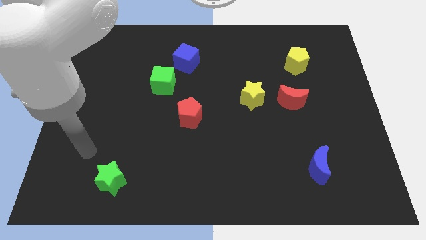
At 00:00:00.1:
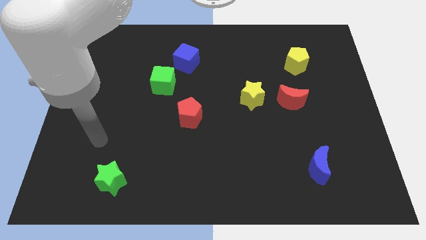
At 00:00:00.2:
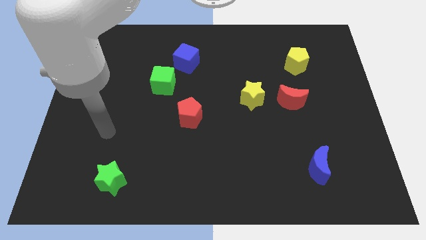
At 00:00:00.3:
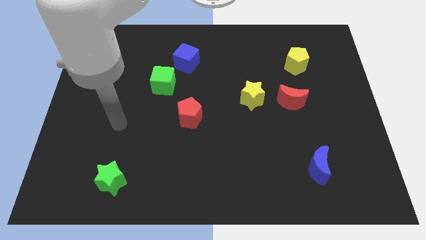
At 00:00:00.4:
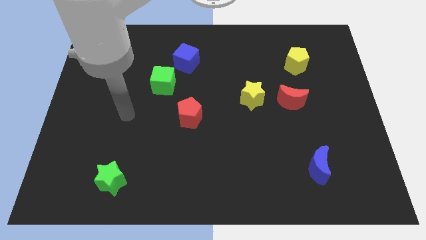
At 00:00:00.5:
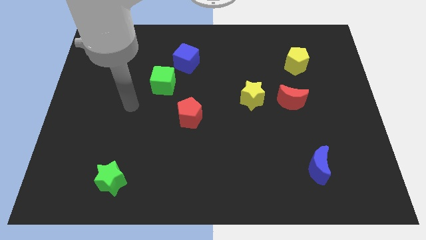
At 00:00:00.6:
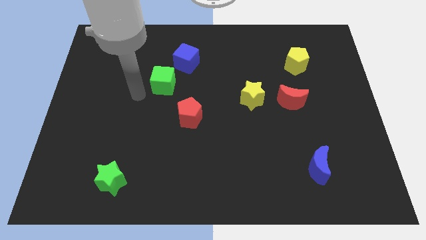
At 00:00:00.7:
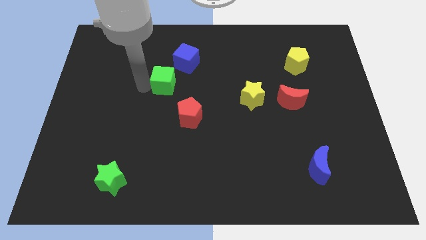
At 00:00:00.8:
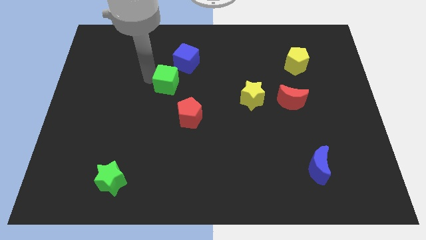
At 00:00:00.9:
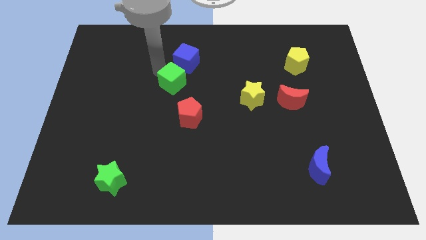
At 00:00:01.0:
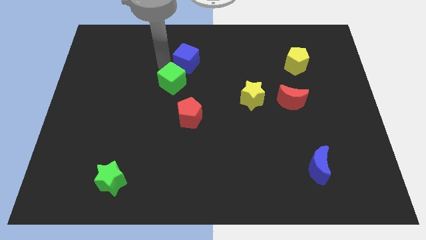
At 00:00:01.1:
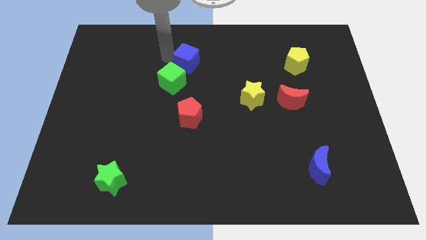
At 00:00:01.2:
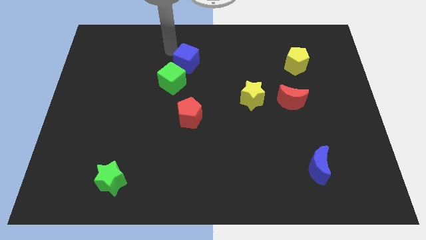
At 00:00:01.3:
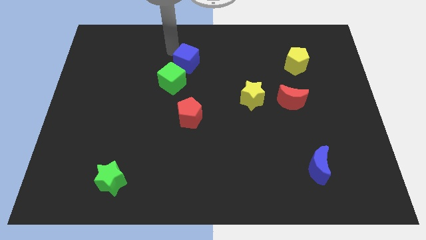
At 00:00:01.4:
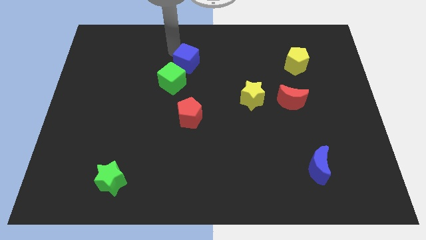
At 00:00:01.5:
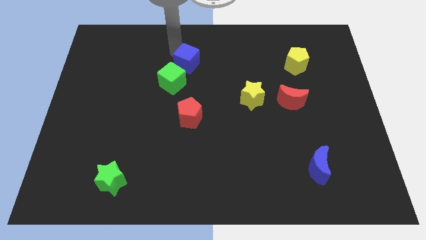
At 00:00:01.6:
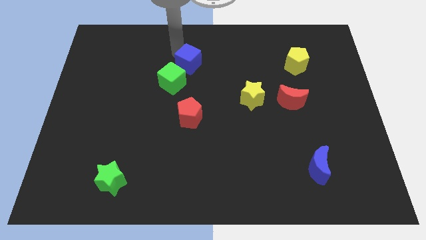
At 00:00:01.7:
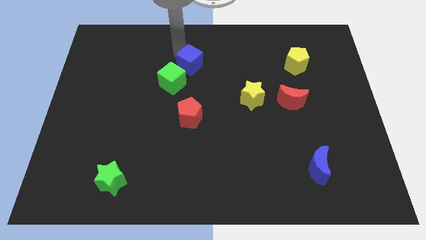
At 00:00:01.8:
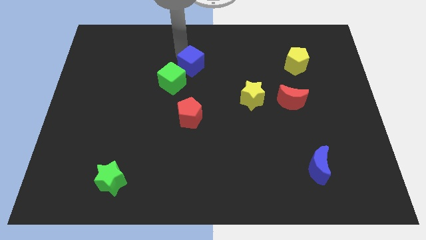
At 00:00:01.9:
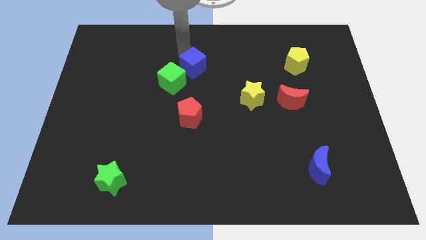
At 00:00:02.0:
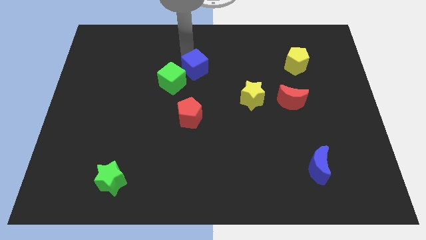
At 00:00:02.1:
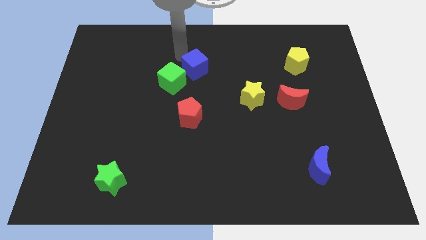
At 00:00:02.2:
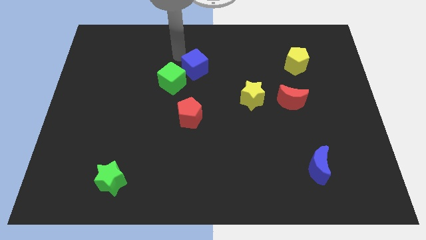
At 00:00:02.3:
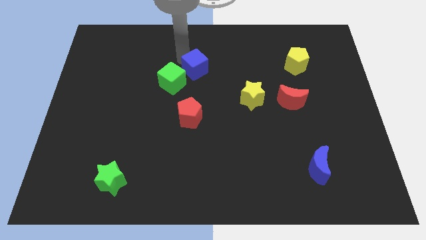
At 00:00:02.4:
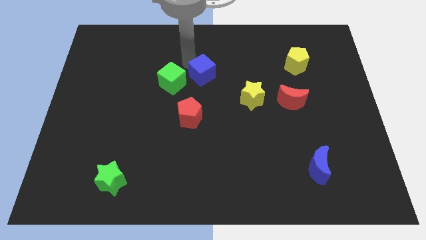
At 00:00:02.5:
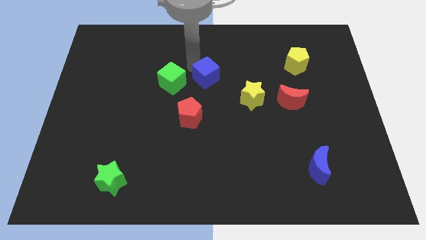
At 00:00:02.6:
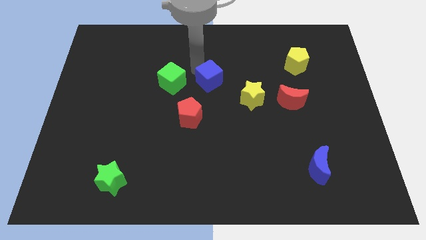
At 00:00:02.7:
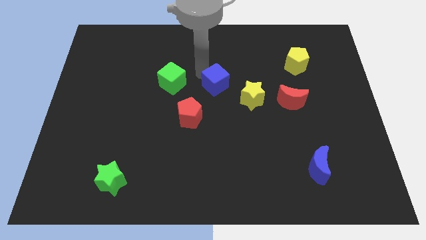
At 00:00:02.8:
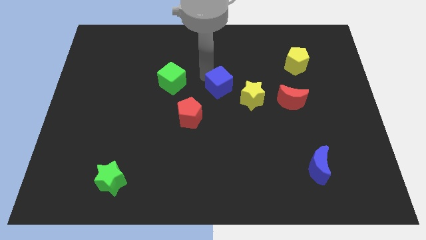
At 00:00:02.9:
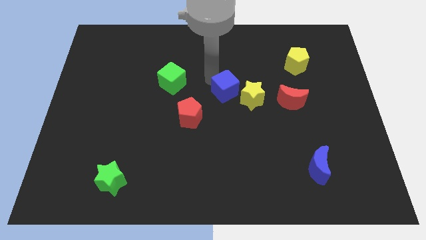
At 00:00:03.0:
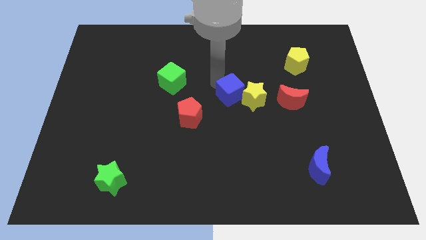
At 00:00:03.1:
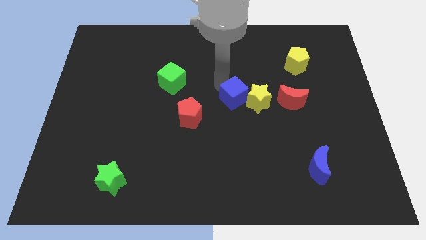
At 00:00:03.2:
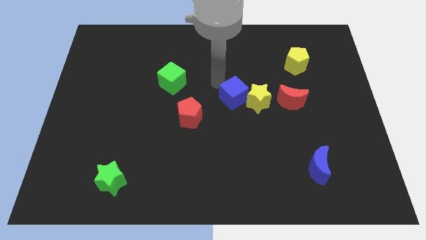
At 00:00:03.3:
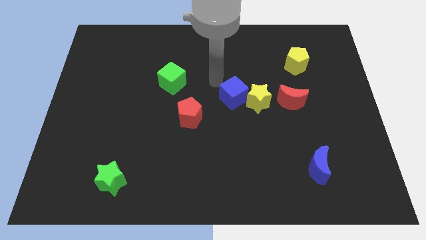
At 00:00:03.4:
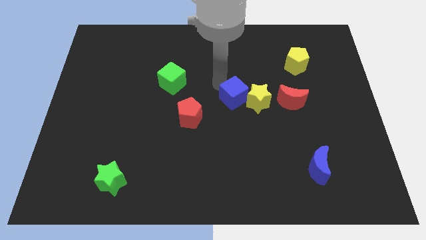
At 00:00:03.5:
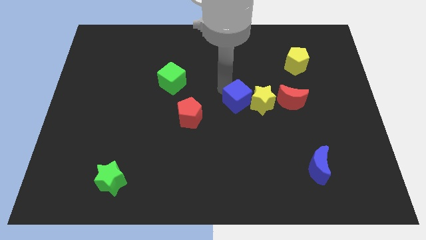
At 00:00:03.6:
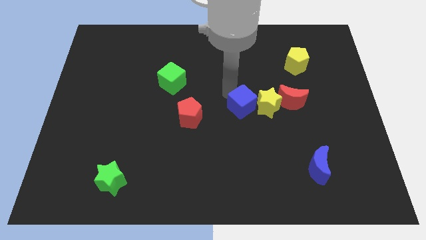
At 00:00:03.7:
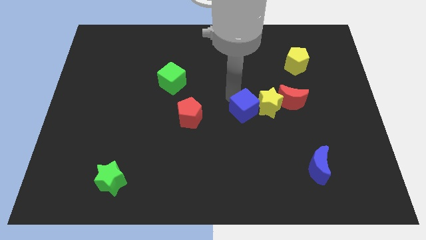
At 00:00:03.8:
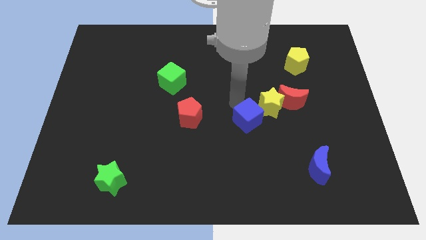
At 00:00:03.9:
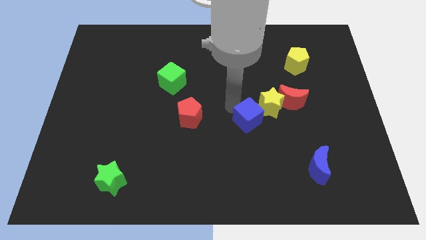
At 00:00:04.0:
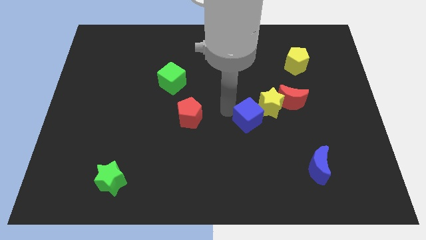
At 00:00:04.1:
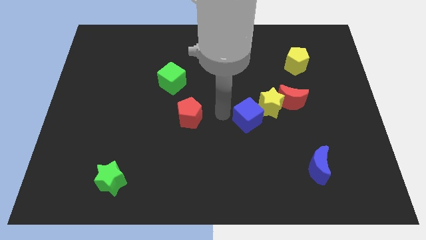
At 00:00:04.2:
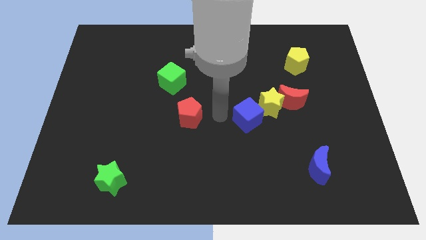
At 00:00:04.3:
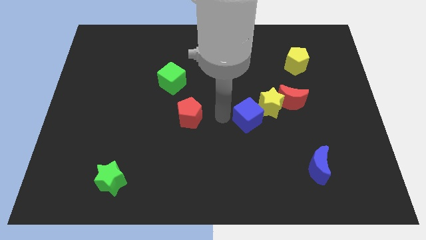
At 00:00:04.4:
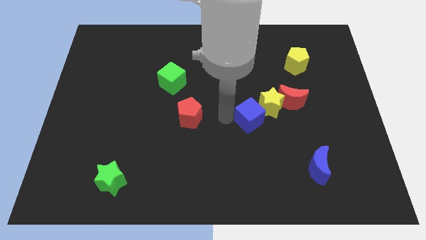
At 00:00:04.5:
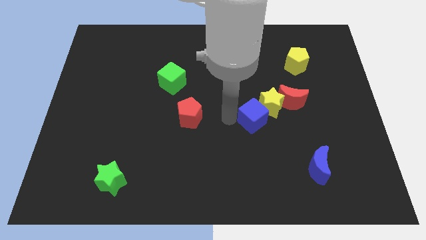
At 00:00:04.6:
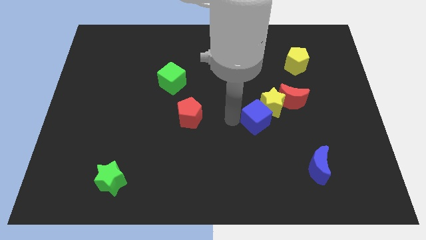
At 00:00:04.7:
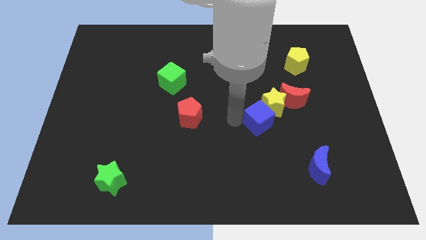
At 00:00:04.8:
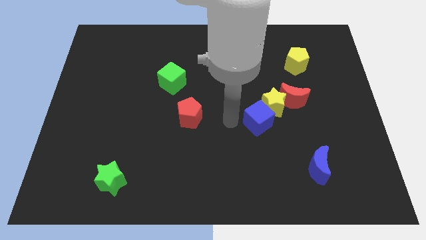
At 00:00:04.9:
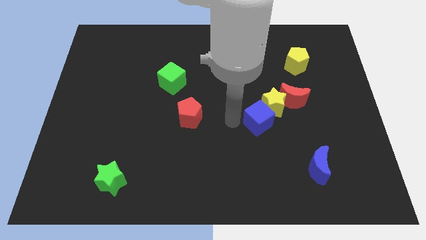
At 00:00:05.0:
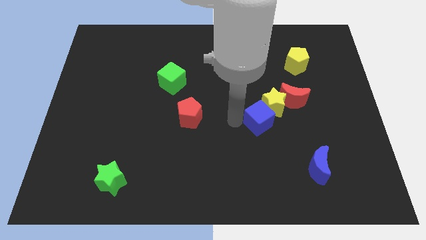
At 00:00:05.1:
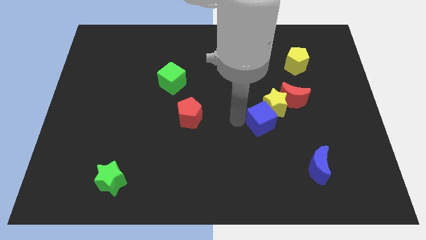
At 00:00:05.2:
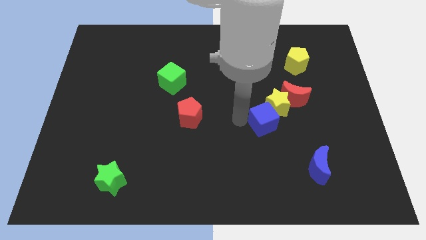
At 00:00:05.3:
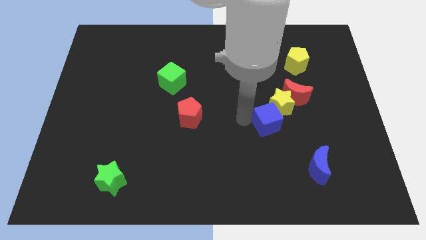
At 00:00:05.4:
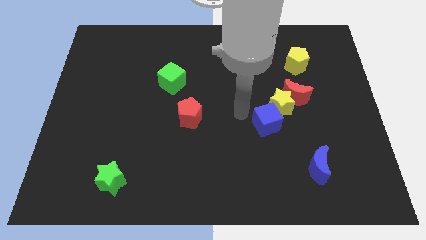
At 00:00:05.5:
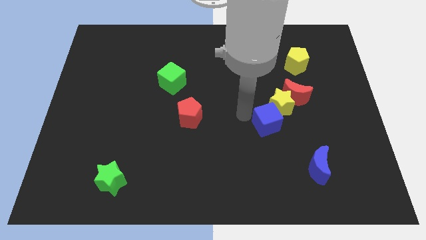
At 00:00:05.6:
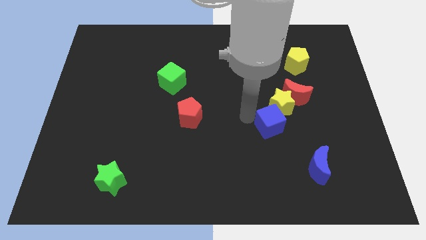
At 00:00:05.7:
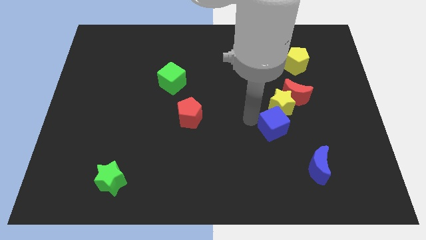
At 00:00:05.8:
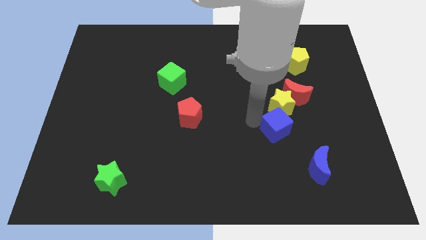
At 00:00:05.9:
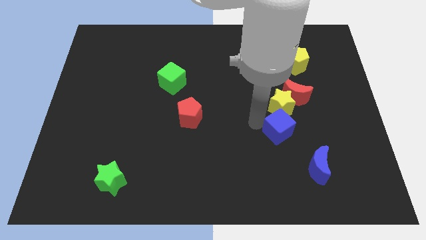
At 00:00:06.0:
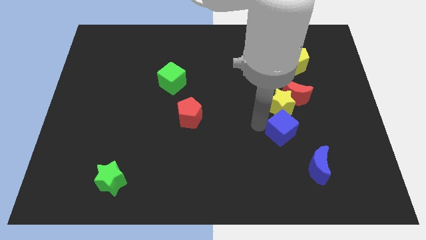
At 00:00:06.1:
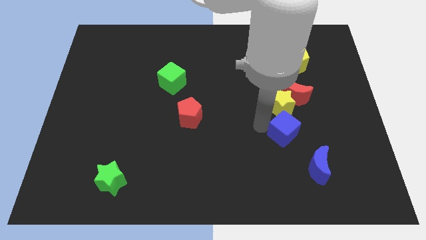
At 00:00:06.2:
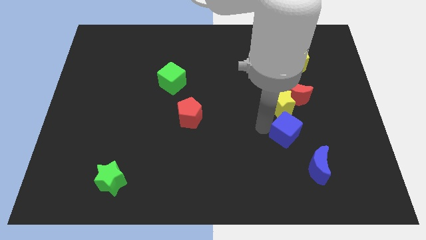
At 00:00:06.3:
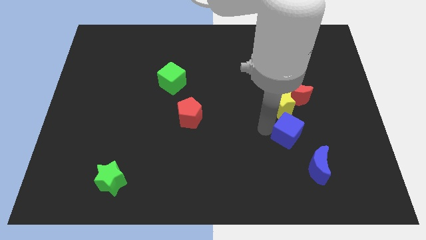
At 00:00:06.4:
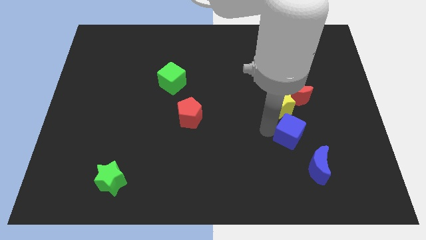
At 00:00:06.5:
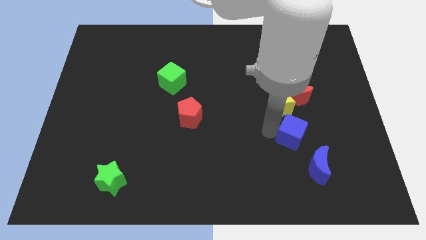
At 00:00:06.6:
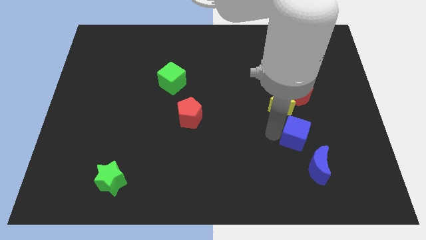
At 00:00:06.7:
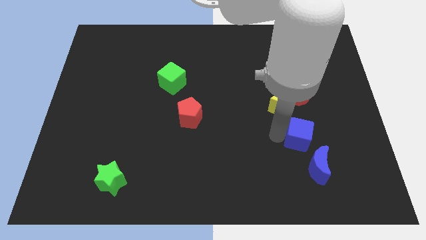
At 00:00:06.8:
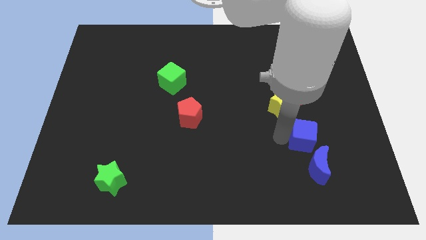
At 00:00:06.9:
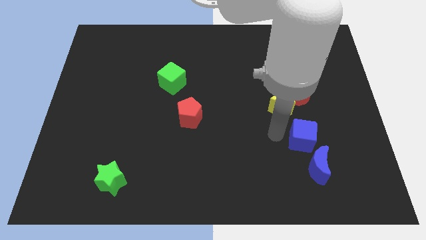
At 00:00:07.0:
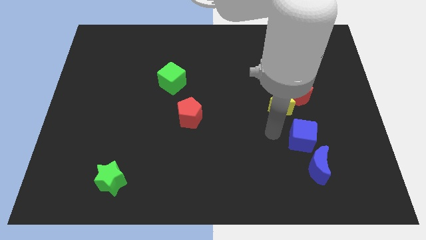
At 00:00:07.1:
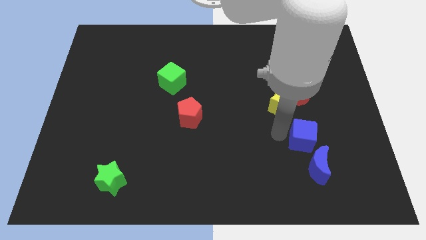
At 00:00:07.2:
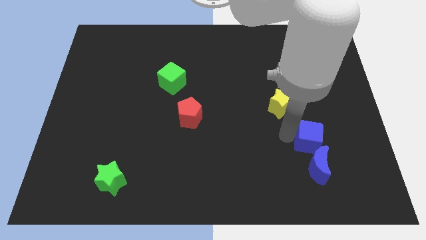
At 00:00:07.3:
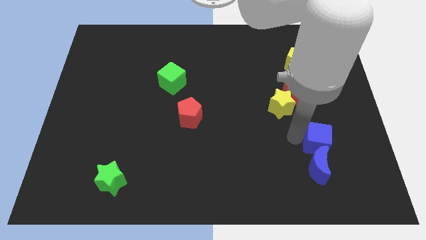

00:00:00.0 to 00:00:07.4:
slide the blue cube diagonally up and to the right of the blue moon
